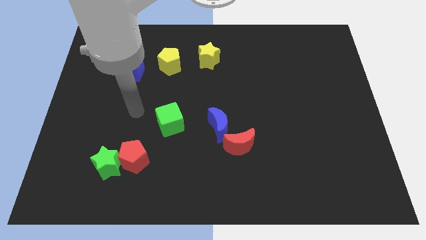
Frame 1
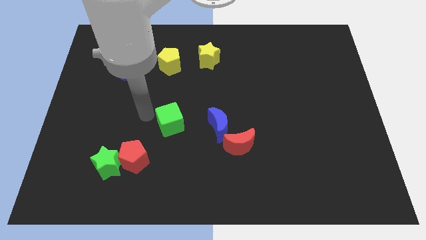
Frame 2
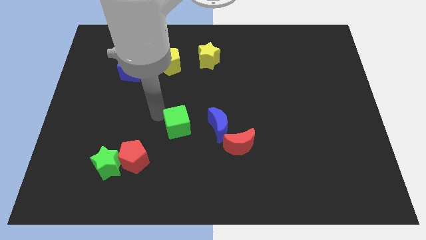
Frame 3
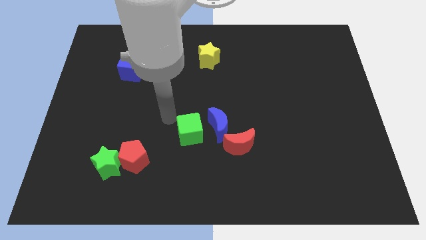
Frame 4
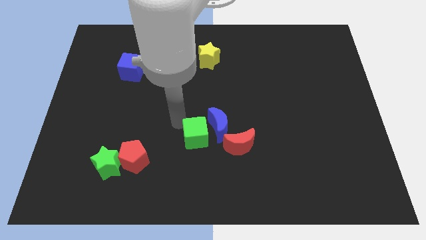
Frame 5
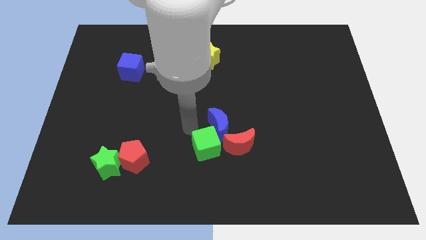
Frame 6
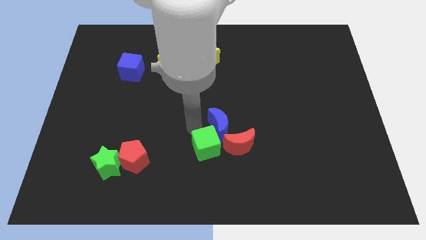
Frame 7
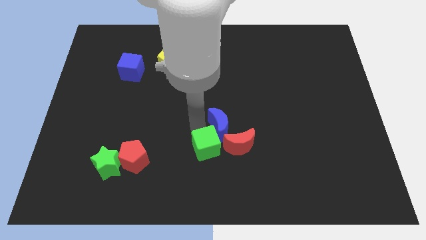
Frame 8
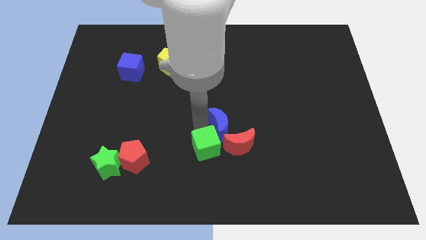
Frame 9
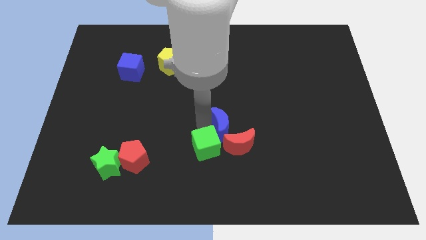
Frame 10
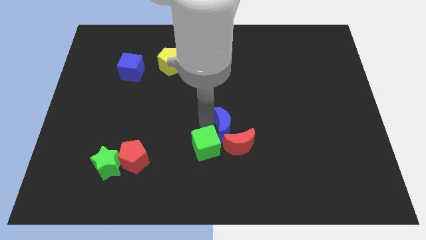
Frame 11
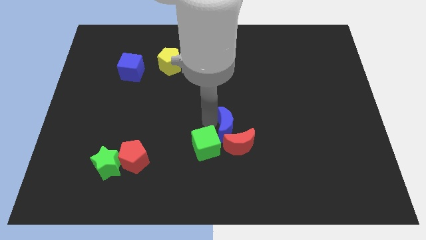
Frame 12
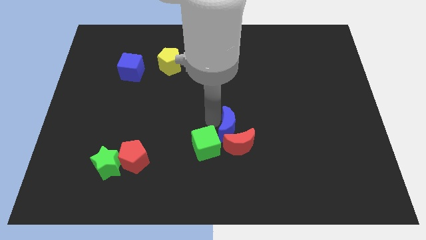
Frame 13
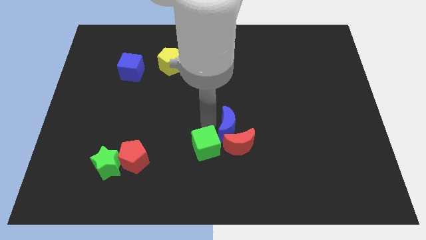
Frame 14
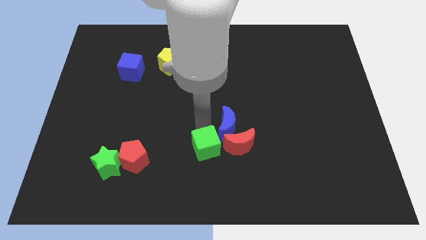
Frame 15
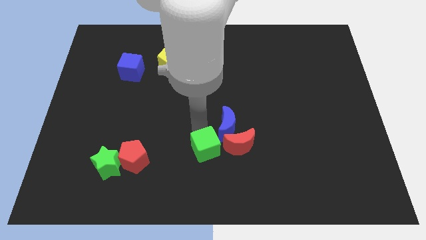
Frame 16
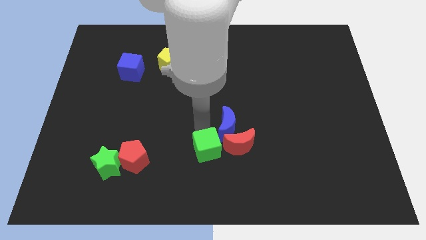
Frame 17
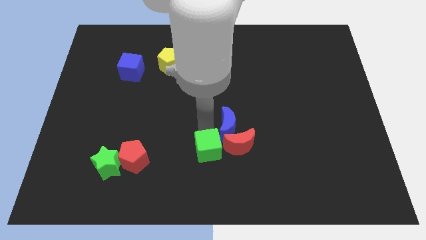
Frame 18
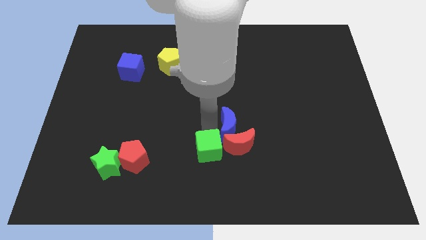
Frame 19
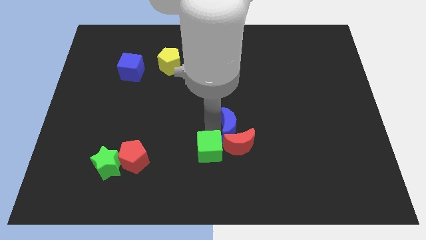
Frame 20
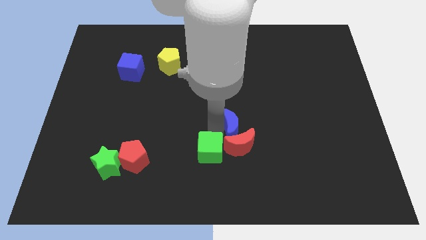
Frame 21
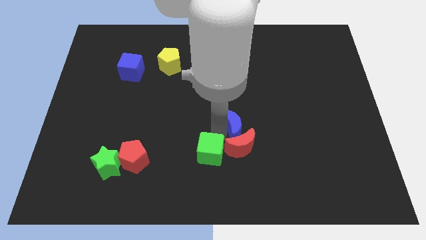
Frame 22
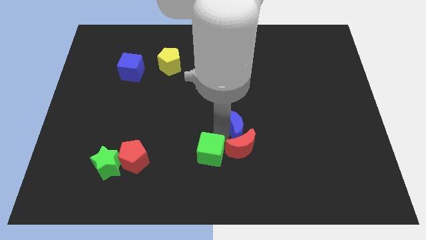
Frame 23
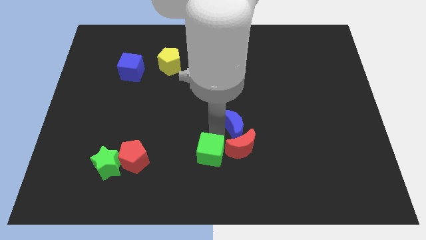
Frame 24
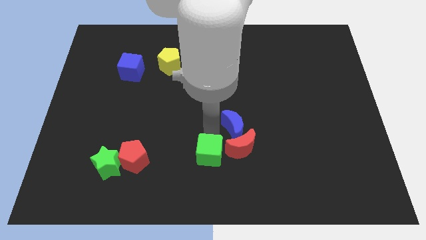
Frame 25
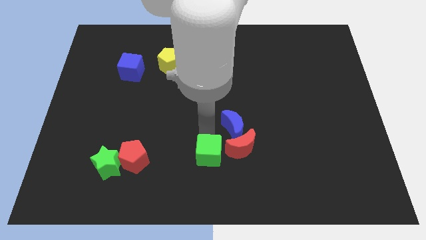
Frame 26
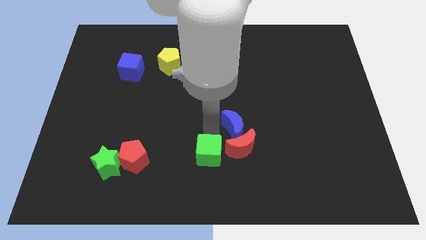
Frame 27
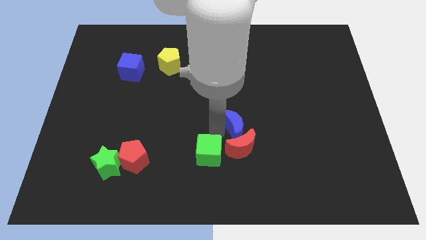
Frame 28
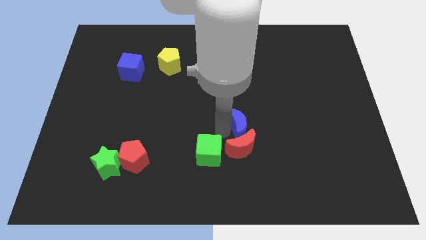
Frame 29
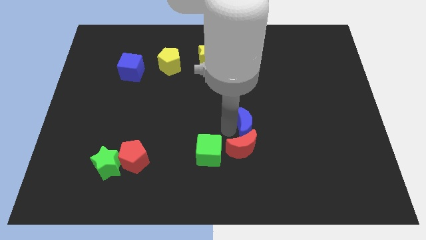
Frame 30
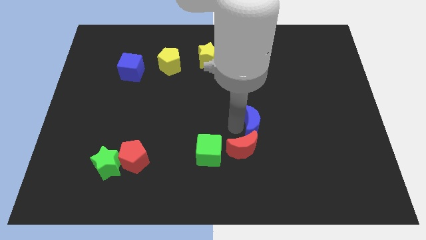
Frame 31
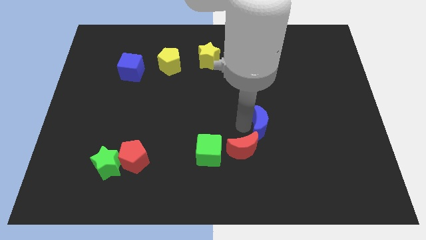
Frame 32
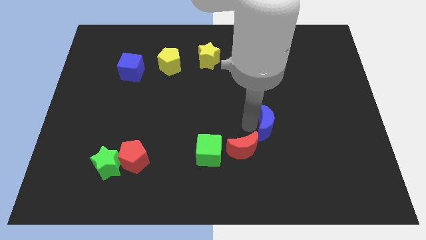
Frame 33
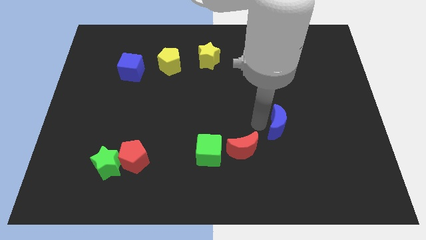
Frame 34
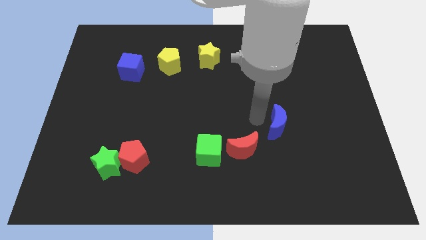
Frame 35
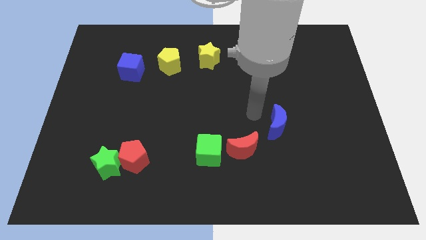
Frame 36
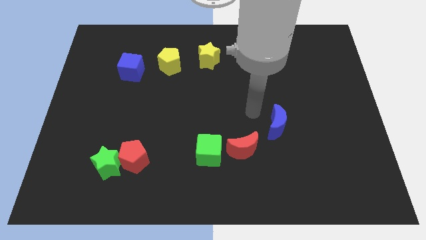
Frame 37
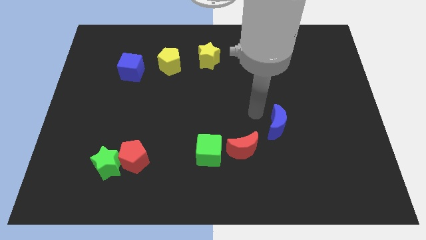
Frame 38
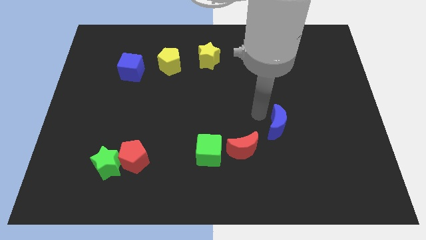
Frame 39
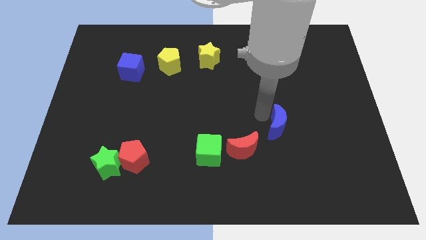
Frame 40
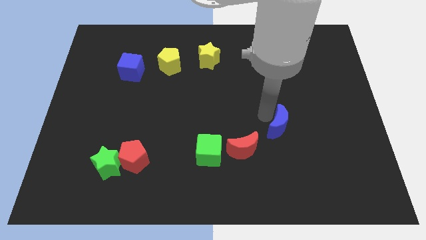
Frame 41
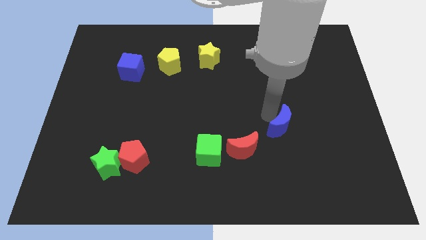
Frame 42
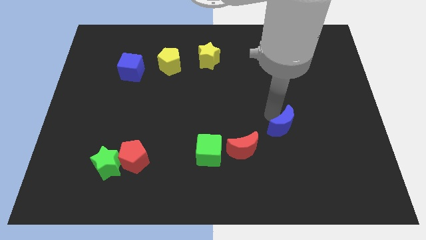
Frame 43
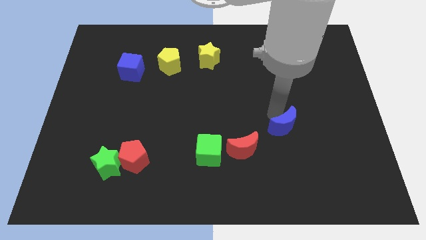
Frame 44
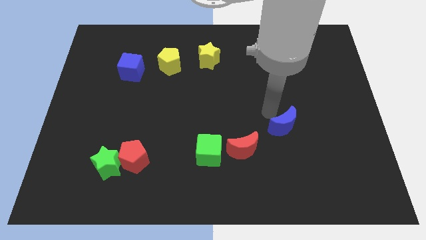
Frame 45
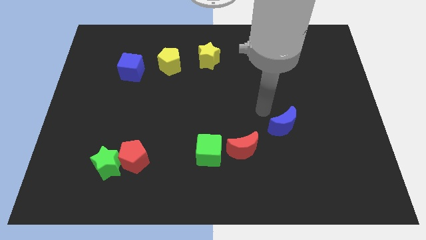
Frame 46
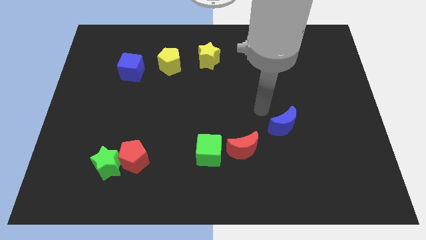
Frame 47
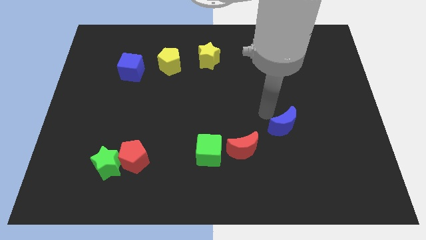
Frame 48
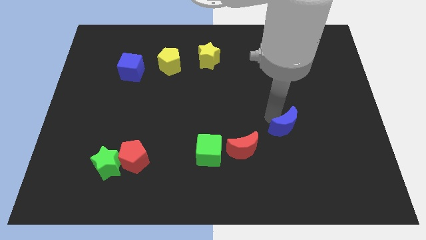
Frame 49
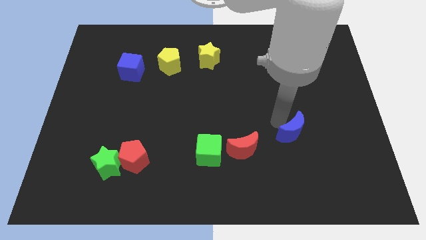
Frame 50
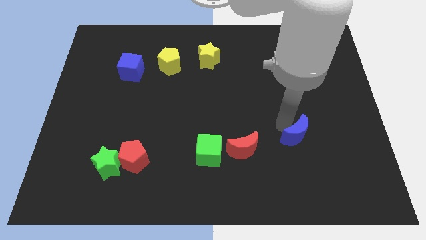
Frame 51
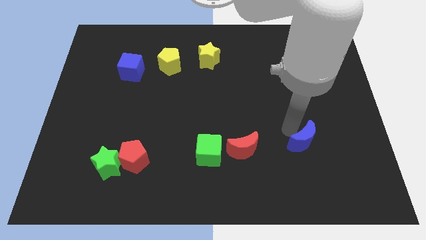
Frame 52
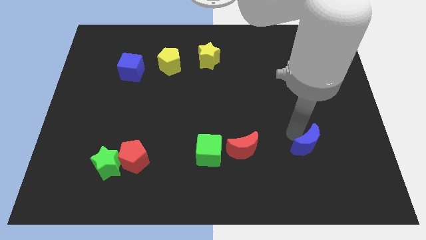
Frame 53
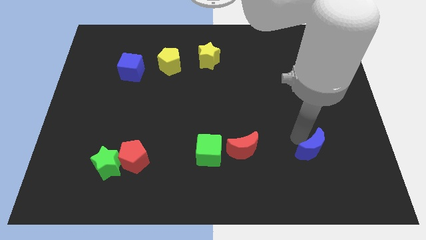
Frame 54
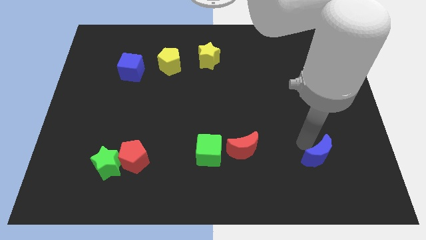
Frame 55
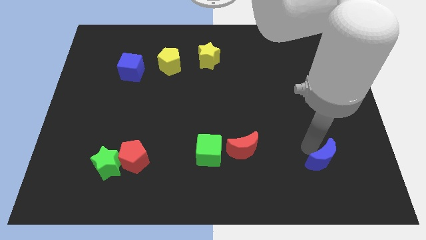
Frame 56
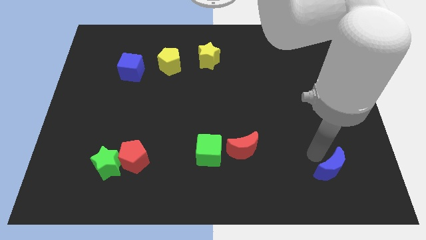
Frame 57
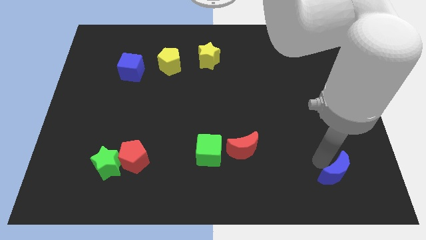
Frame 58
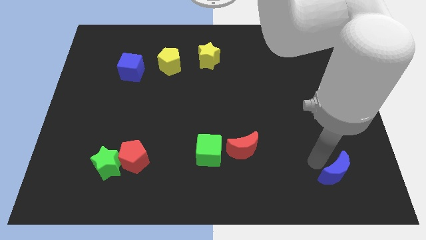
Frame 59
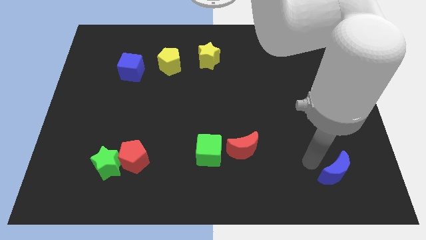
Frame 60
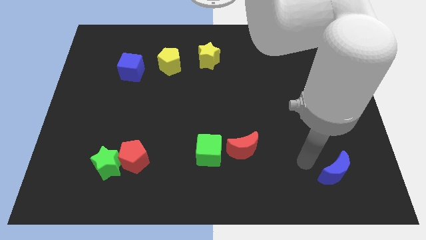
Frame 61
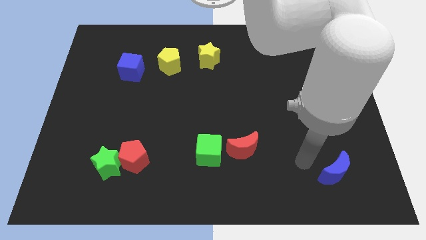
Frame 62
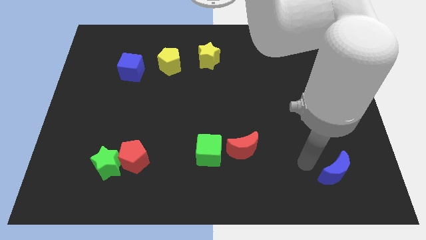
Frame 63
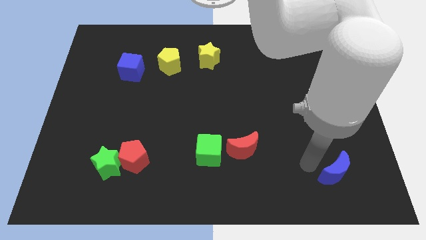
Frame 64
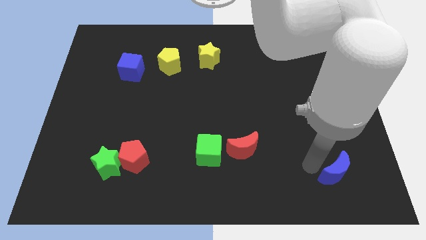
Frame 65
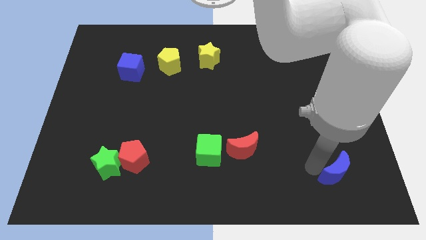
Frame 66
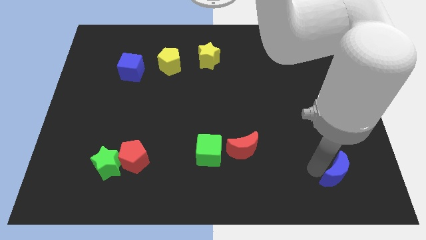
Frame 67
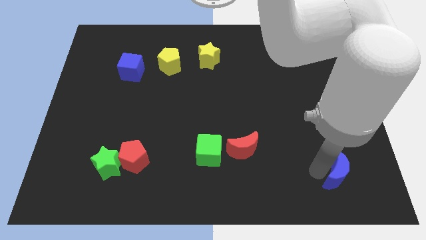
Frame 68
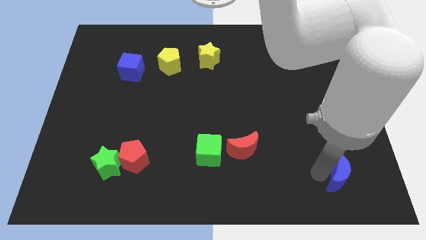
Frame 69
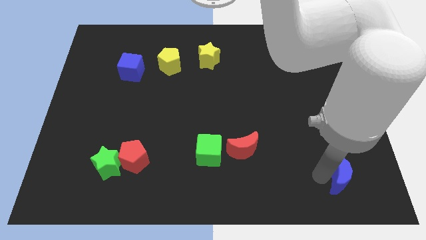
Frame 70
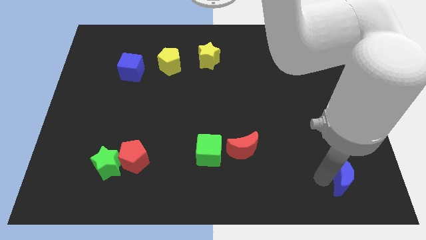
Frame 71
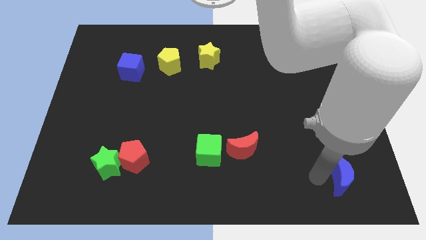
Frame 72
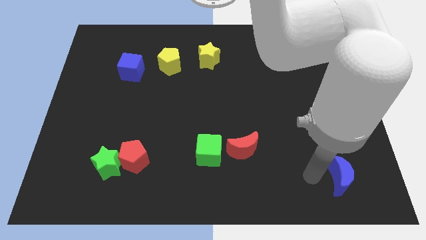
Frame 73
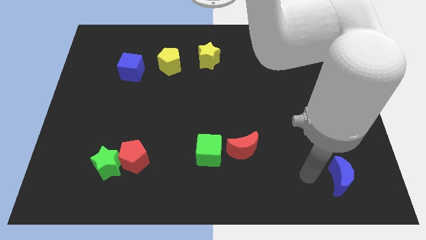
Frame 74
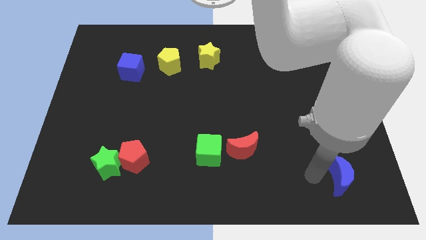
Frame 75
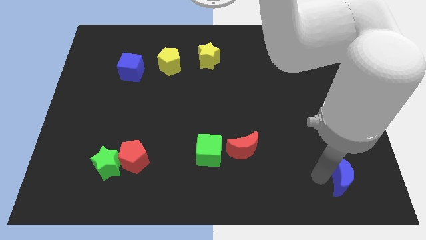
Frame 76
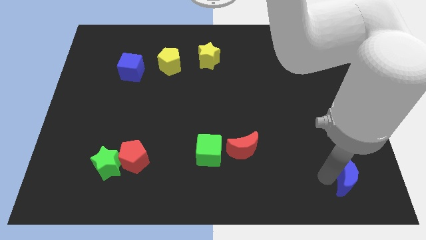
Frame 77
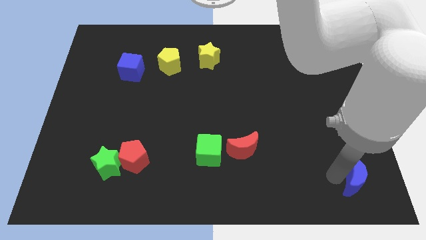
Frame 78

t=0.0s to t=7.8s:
slide the blue moon to the lower right corner
